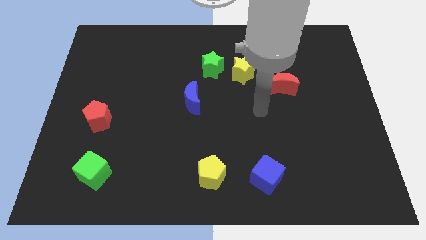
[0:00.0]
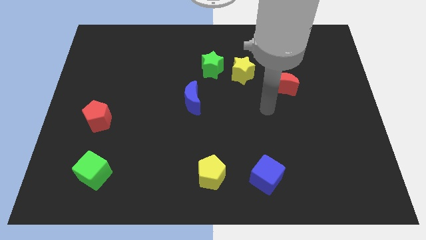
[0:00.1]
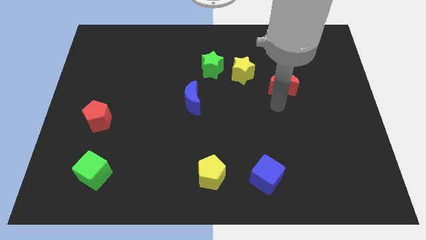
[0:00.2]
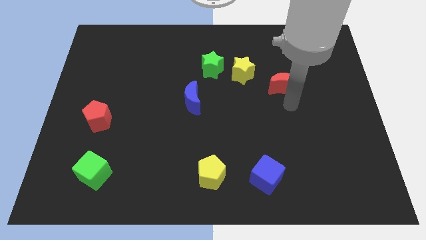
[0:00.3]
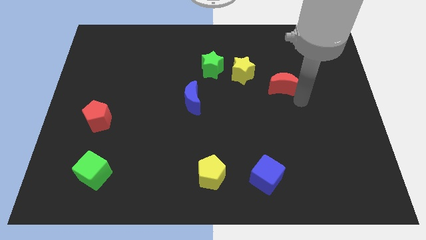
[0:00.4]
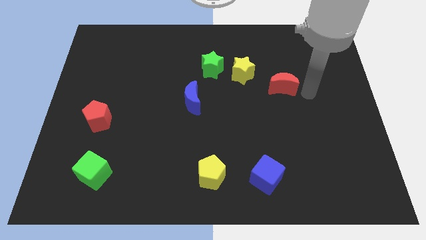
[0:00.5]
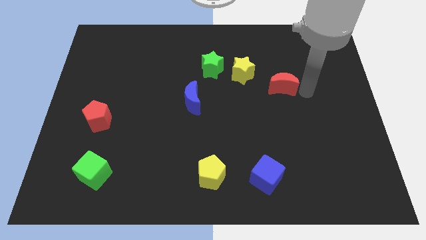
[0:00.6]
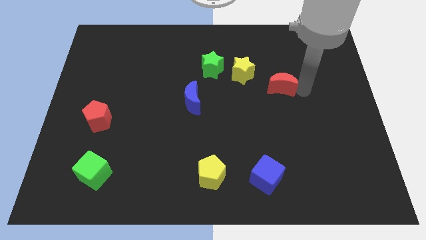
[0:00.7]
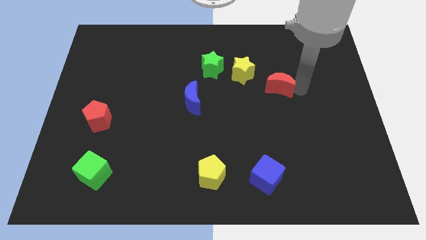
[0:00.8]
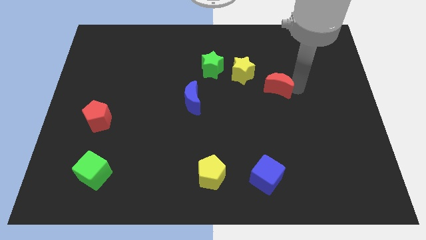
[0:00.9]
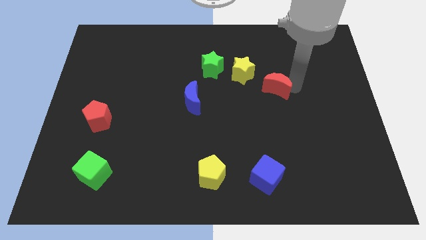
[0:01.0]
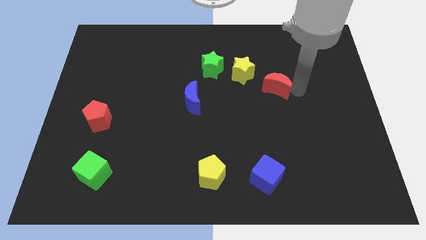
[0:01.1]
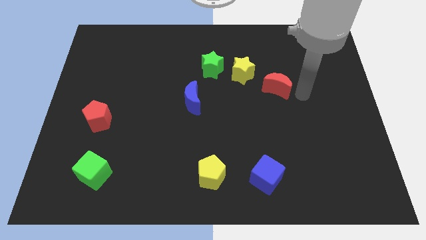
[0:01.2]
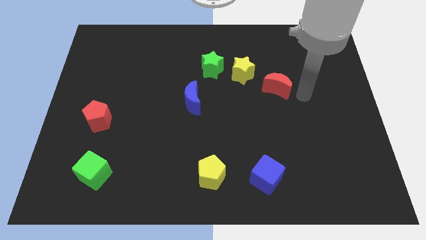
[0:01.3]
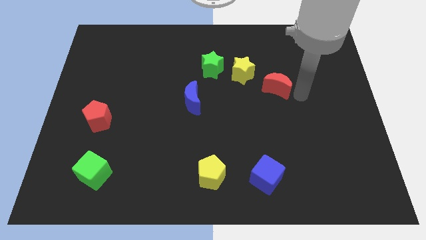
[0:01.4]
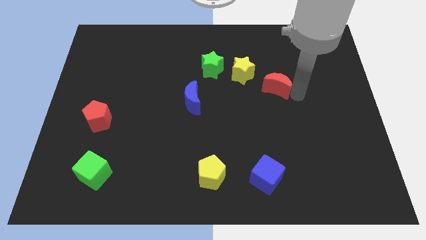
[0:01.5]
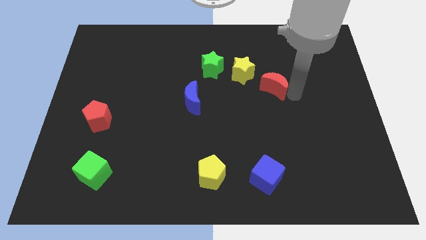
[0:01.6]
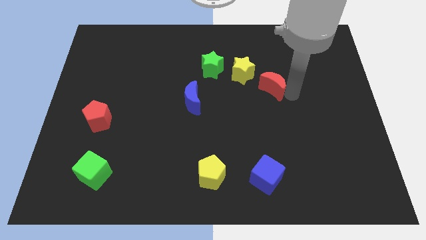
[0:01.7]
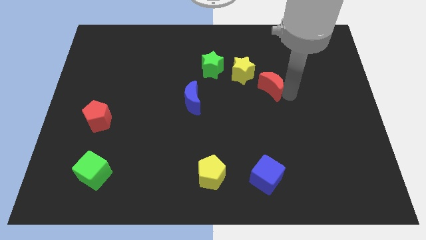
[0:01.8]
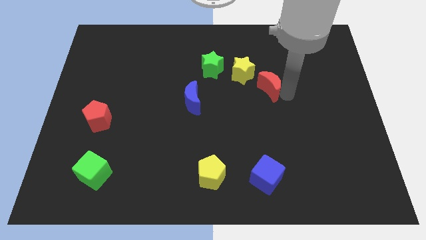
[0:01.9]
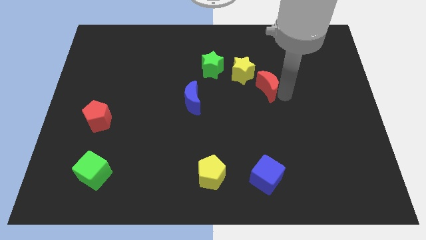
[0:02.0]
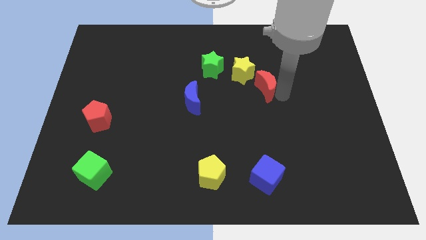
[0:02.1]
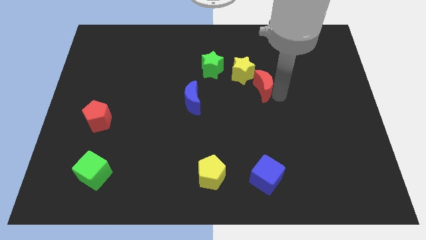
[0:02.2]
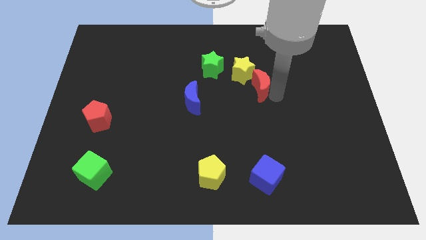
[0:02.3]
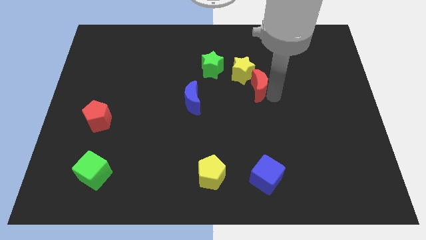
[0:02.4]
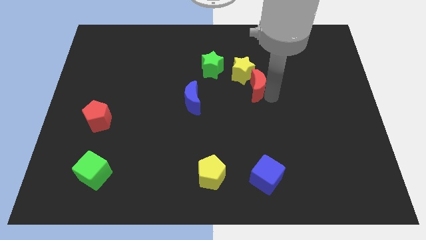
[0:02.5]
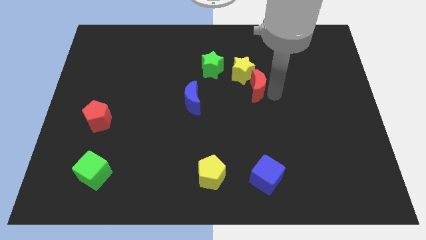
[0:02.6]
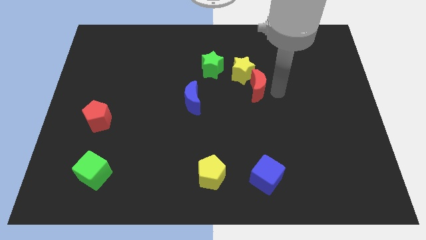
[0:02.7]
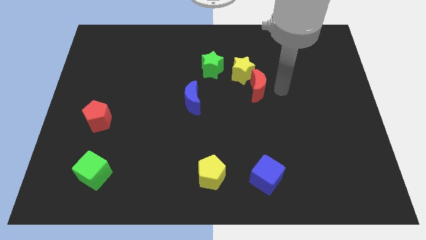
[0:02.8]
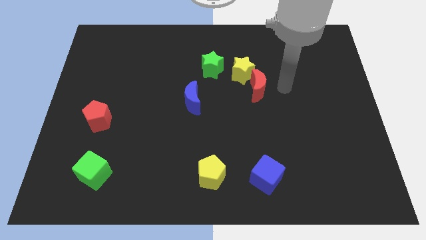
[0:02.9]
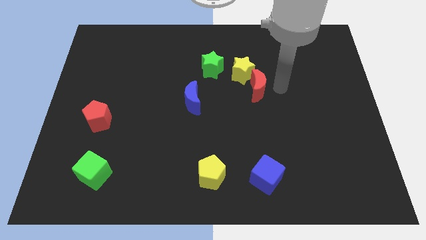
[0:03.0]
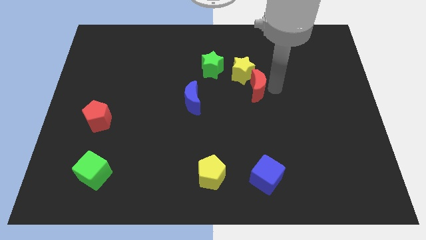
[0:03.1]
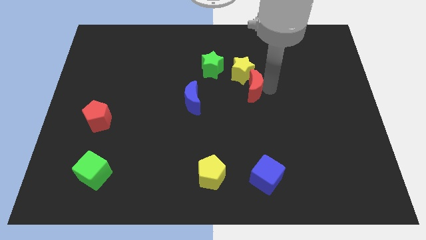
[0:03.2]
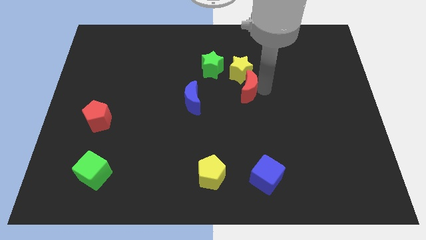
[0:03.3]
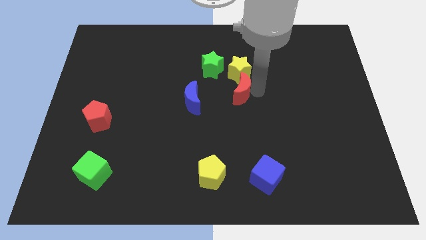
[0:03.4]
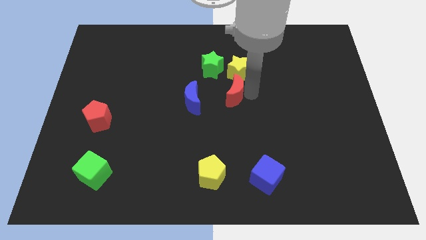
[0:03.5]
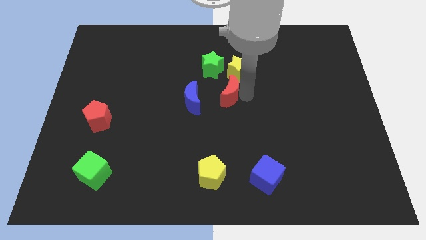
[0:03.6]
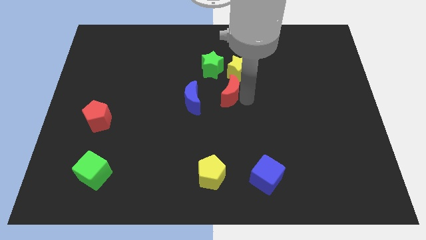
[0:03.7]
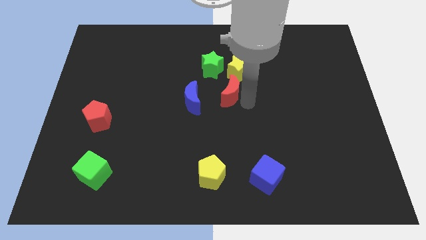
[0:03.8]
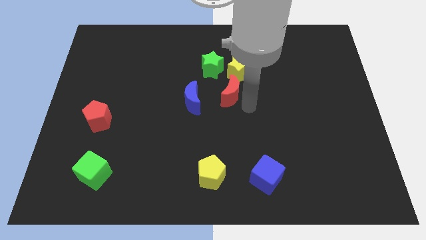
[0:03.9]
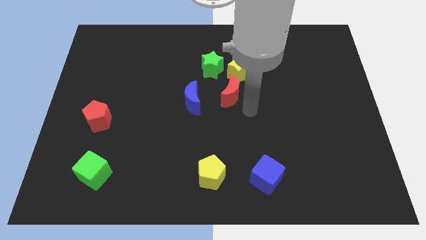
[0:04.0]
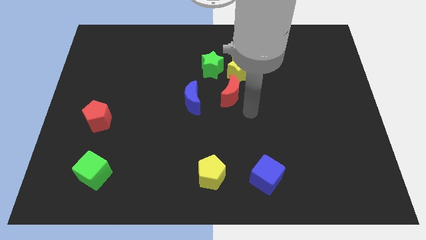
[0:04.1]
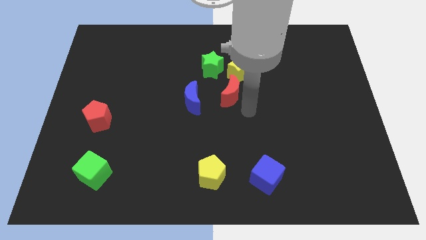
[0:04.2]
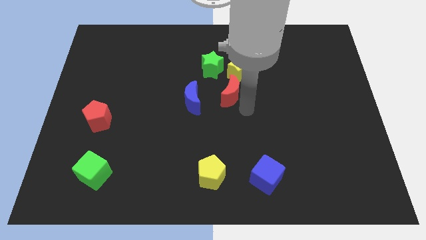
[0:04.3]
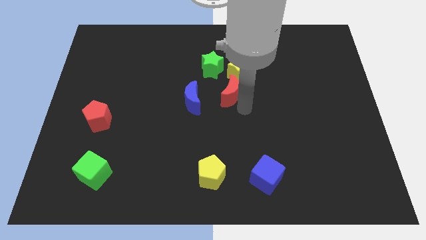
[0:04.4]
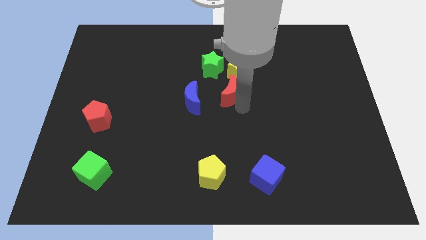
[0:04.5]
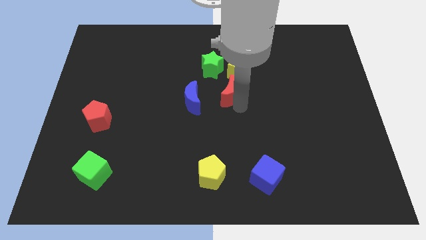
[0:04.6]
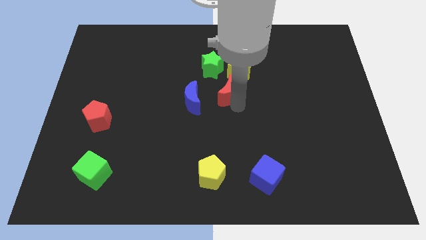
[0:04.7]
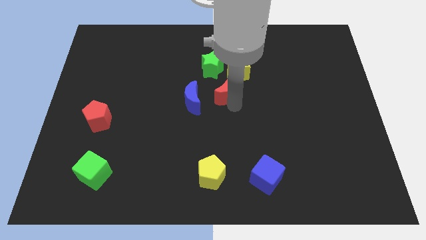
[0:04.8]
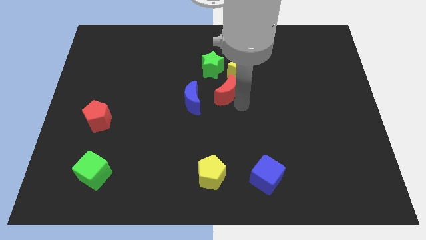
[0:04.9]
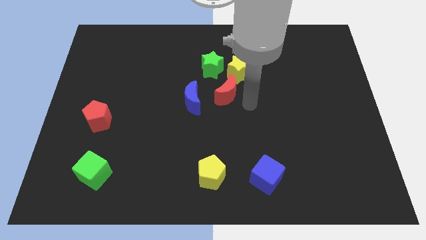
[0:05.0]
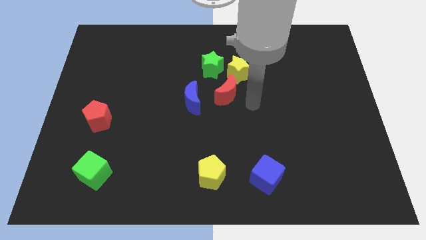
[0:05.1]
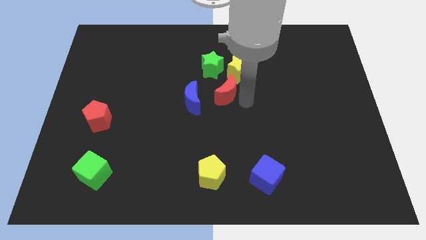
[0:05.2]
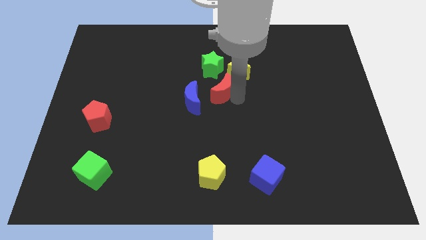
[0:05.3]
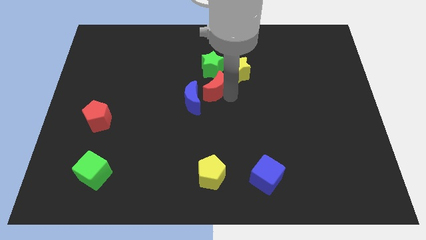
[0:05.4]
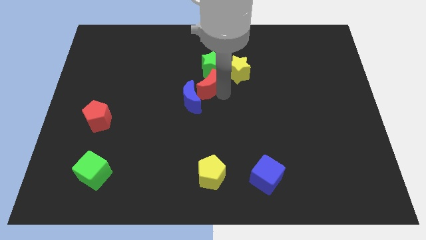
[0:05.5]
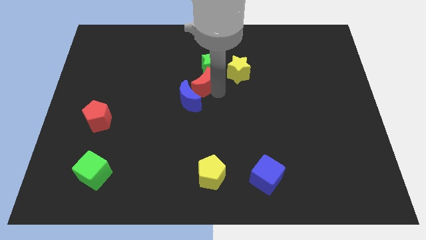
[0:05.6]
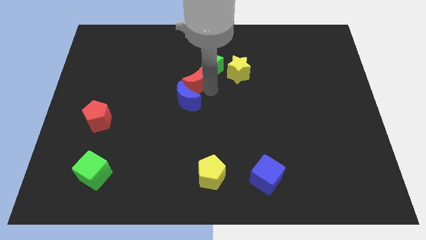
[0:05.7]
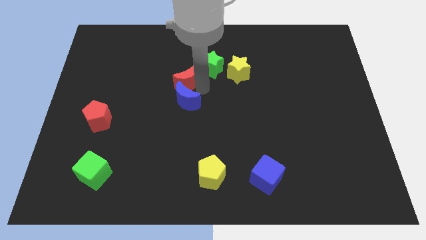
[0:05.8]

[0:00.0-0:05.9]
slide the red moon left of the green star
